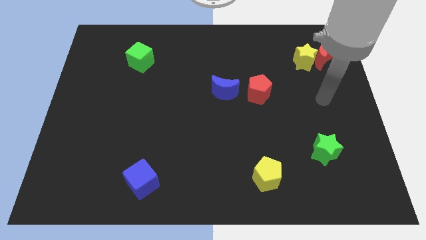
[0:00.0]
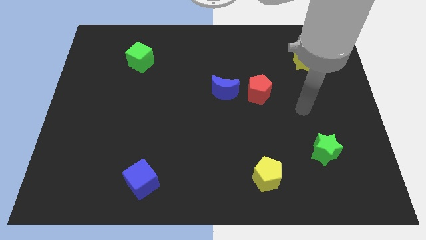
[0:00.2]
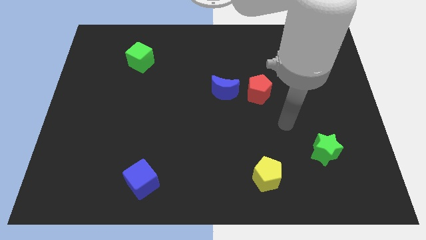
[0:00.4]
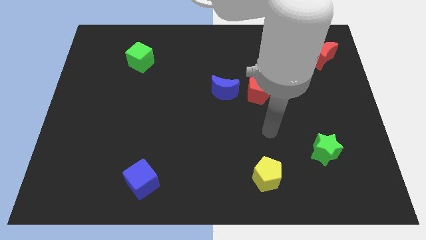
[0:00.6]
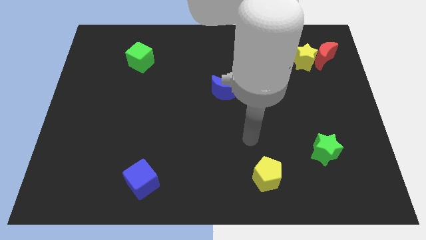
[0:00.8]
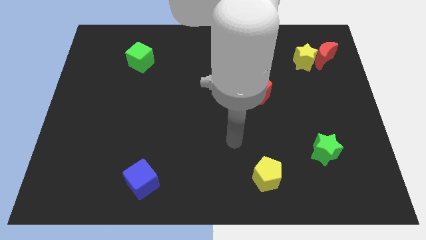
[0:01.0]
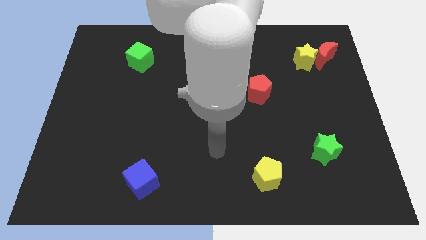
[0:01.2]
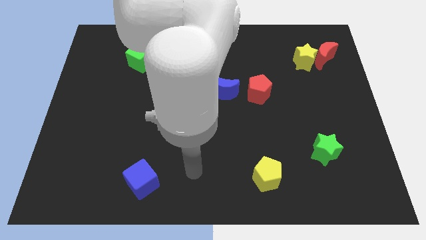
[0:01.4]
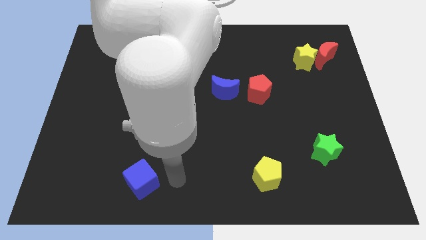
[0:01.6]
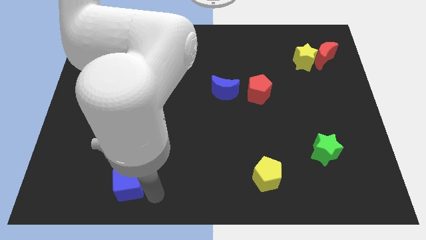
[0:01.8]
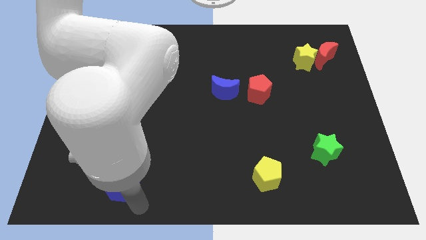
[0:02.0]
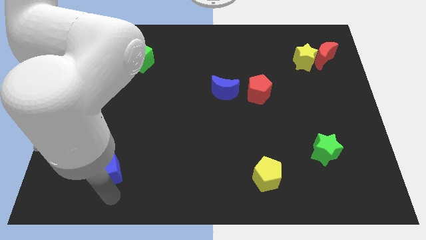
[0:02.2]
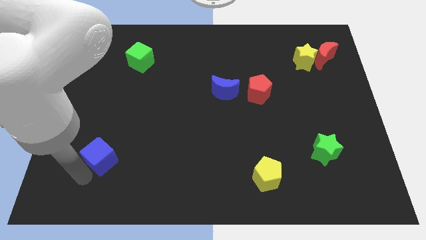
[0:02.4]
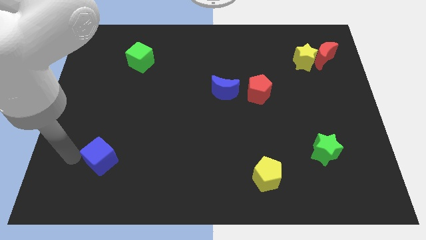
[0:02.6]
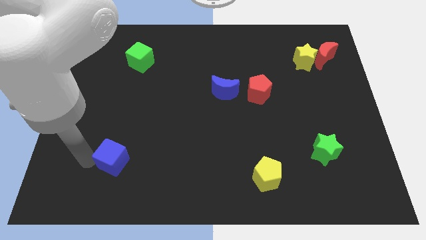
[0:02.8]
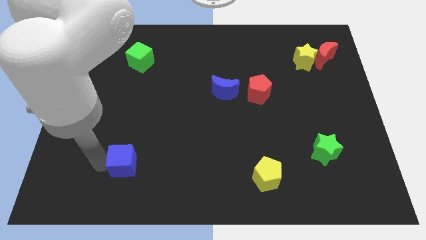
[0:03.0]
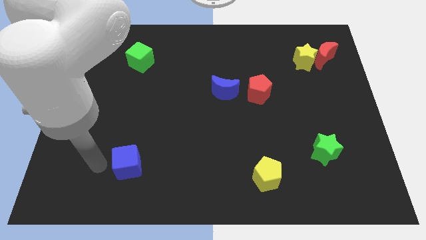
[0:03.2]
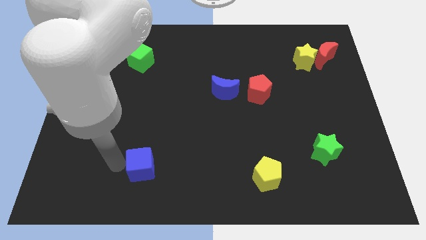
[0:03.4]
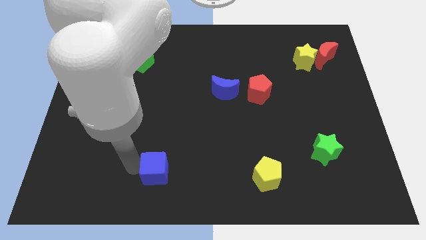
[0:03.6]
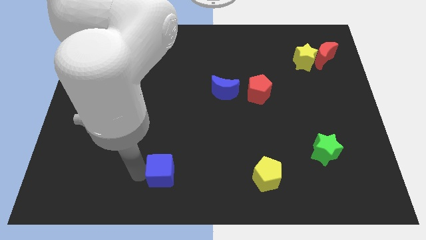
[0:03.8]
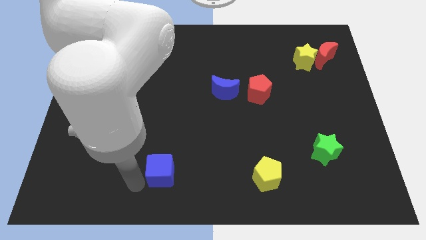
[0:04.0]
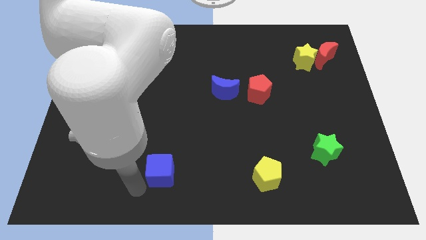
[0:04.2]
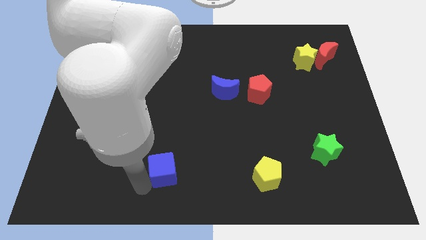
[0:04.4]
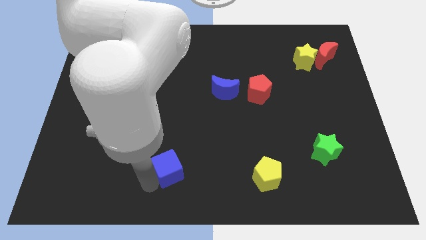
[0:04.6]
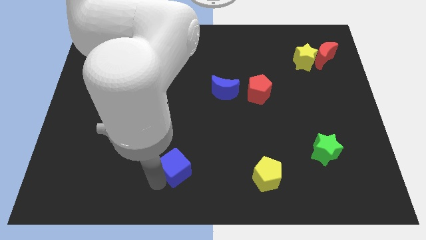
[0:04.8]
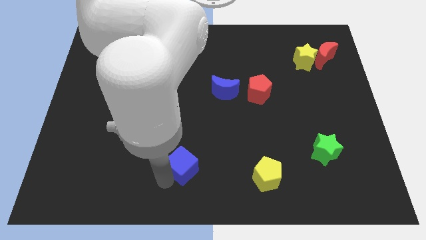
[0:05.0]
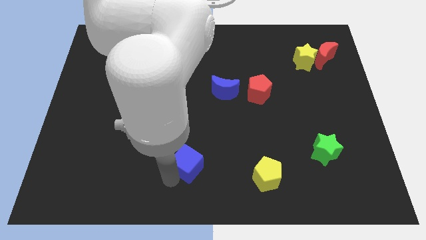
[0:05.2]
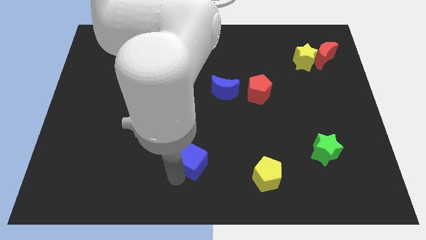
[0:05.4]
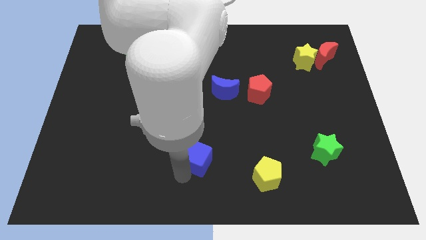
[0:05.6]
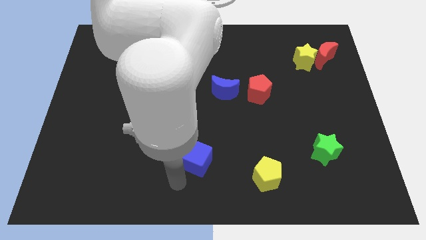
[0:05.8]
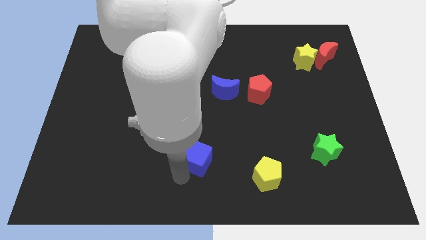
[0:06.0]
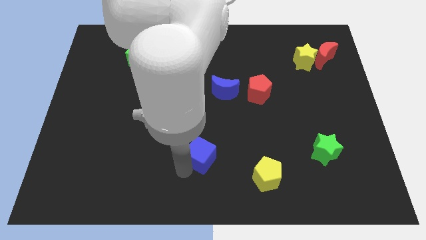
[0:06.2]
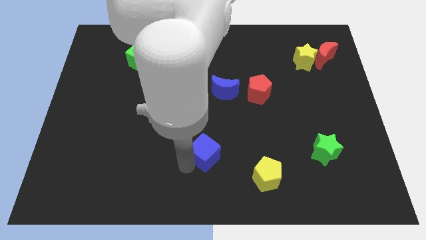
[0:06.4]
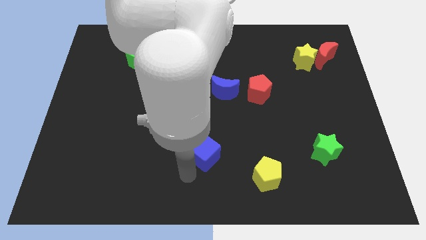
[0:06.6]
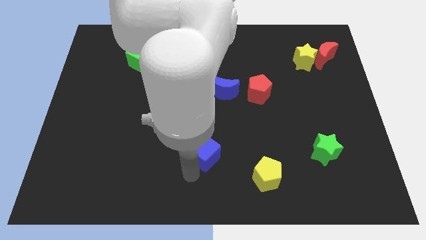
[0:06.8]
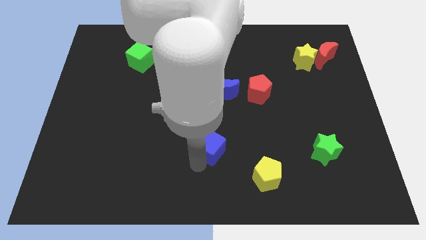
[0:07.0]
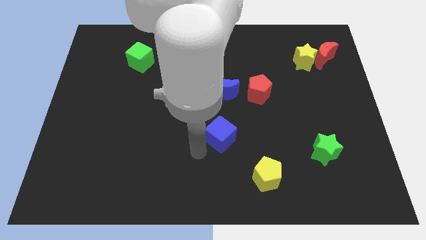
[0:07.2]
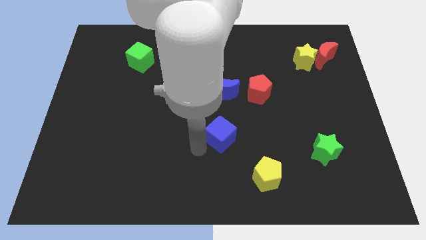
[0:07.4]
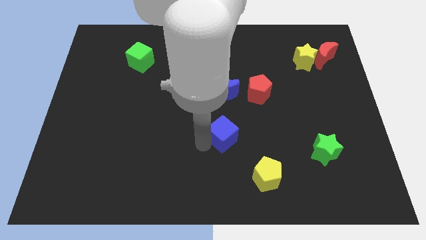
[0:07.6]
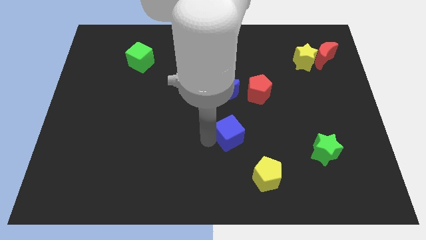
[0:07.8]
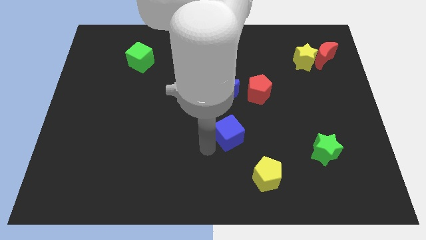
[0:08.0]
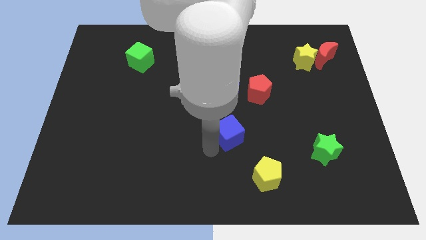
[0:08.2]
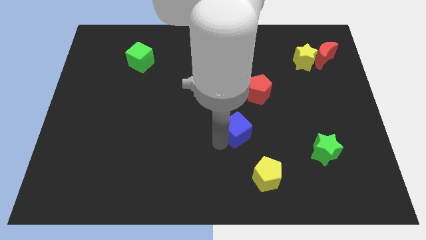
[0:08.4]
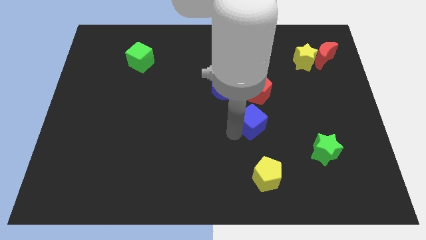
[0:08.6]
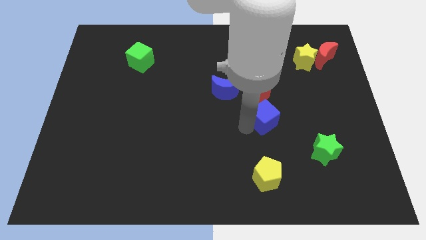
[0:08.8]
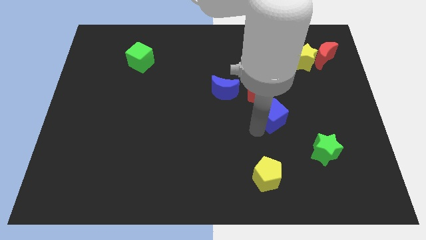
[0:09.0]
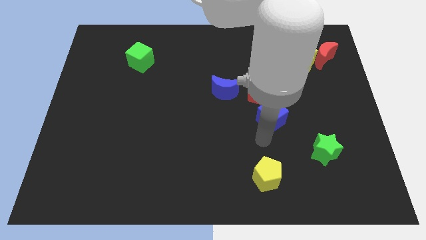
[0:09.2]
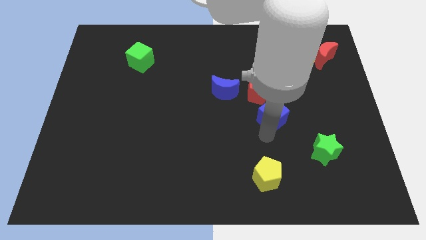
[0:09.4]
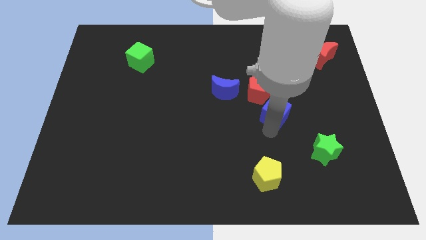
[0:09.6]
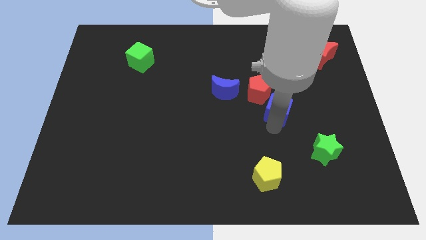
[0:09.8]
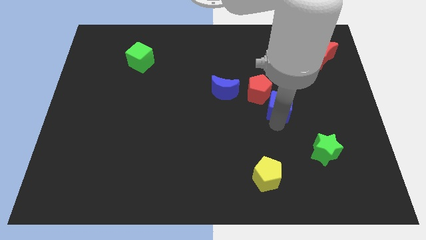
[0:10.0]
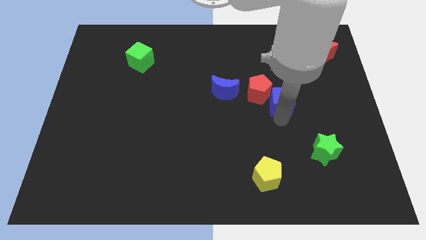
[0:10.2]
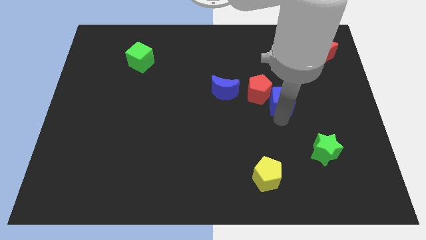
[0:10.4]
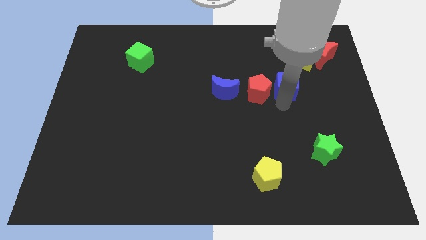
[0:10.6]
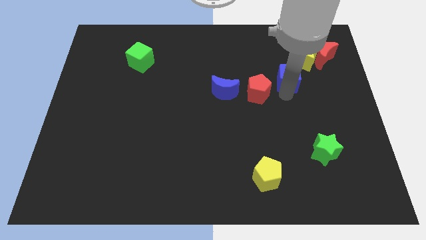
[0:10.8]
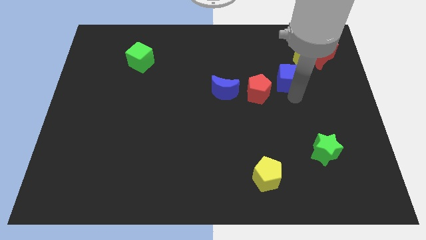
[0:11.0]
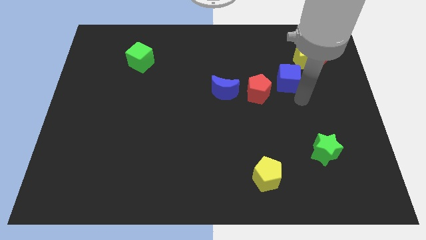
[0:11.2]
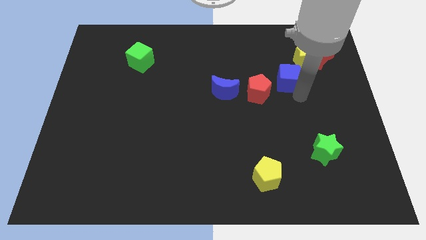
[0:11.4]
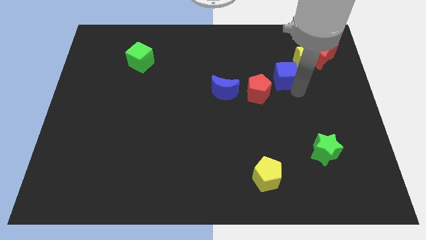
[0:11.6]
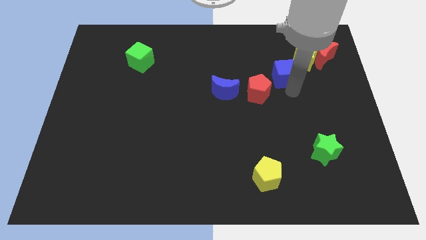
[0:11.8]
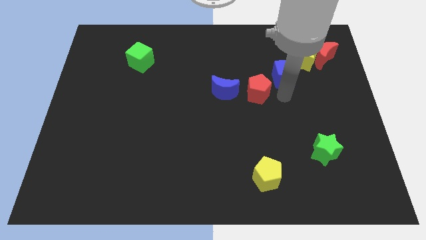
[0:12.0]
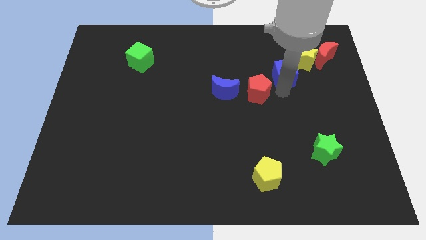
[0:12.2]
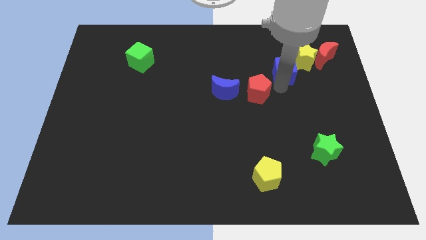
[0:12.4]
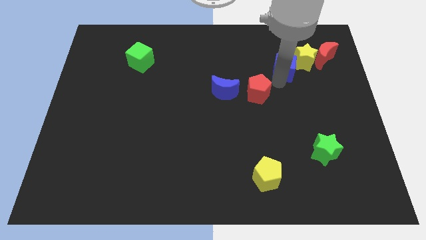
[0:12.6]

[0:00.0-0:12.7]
slide the blue cube just left of the red moon

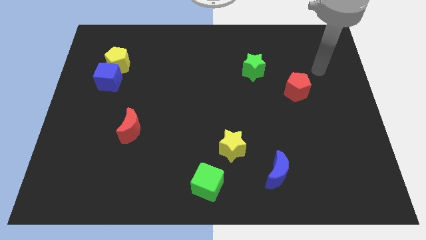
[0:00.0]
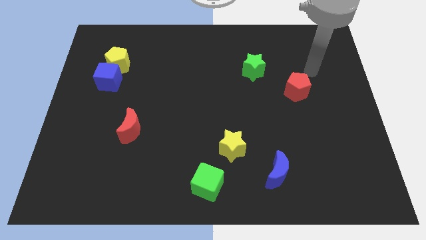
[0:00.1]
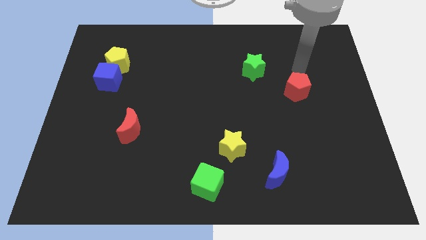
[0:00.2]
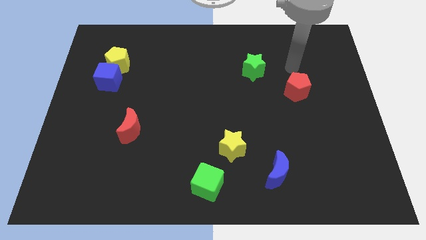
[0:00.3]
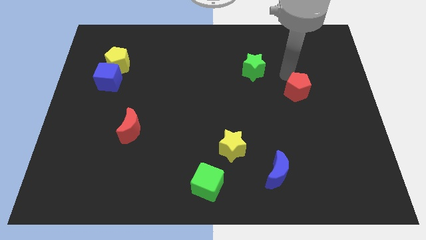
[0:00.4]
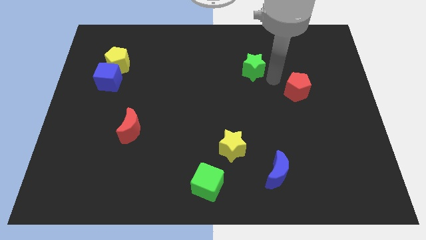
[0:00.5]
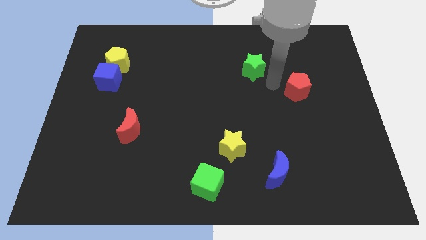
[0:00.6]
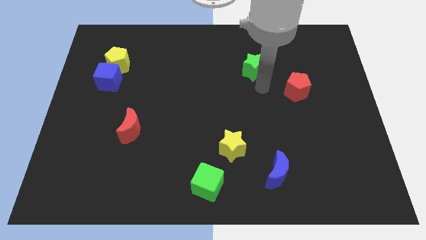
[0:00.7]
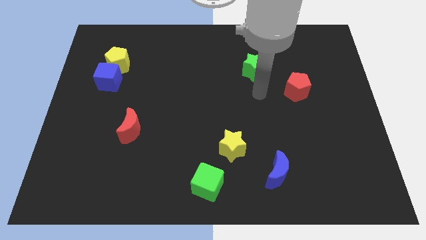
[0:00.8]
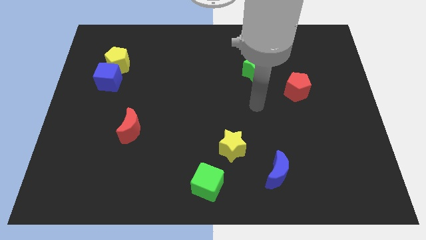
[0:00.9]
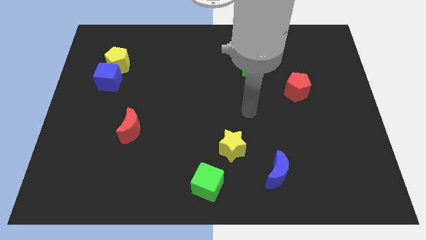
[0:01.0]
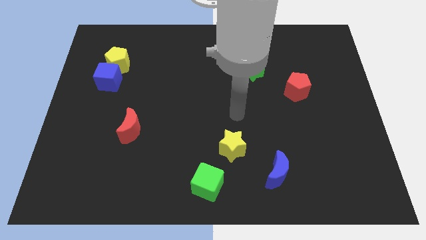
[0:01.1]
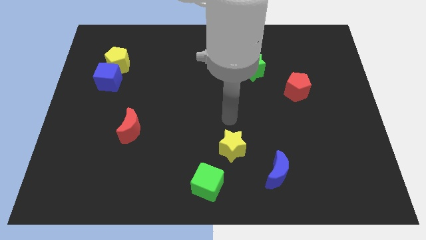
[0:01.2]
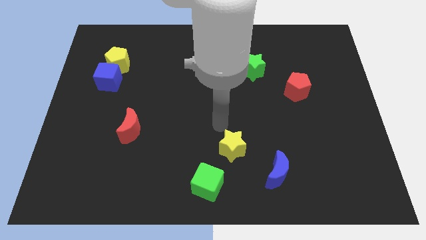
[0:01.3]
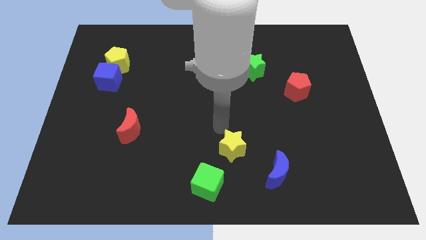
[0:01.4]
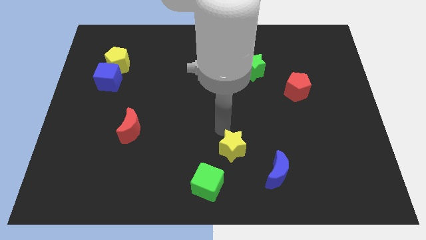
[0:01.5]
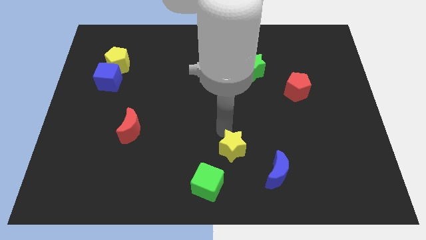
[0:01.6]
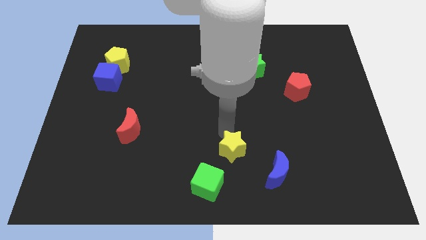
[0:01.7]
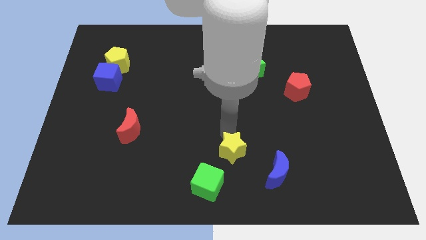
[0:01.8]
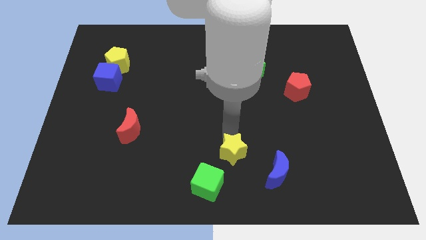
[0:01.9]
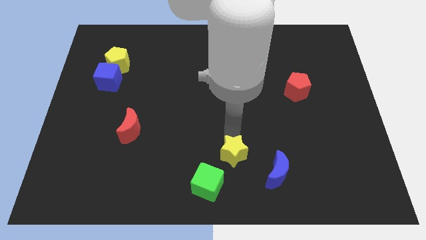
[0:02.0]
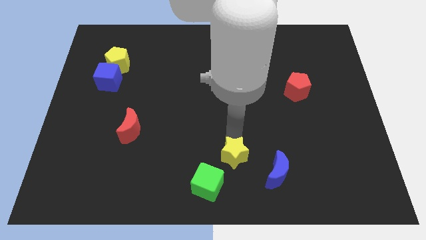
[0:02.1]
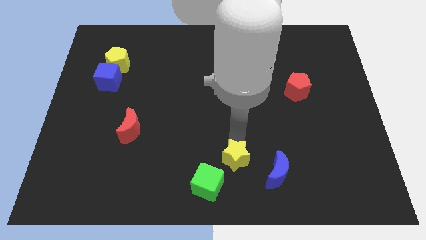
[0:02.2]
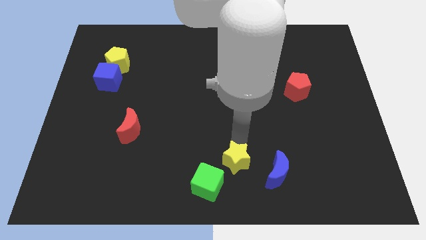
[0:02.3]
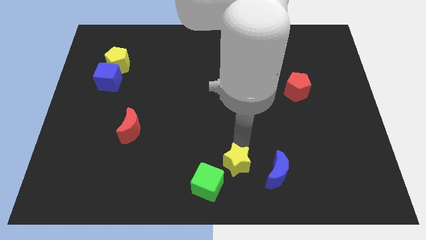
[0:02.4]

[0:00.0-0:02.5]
move the yellow star right of the green cube
